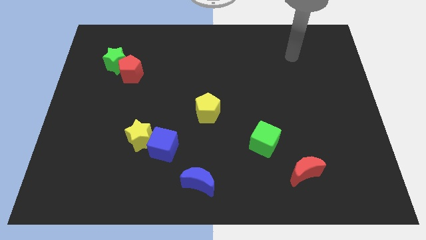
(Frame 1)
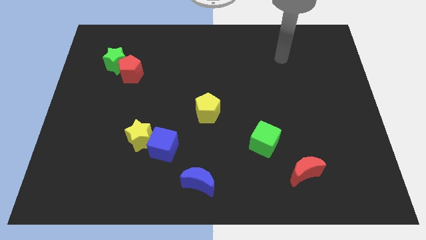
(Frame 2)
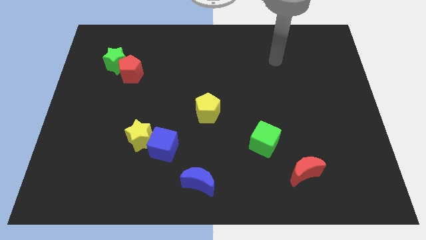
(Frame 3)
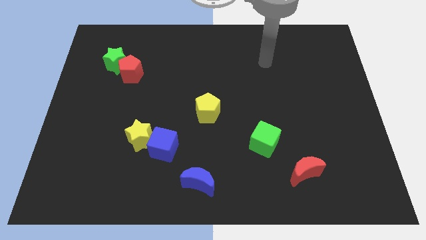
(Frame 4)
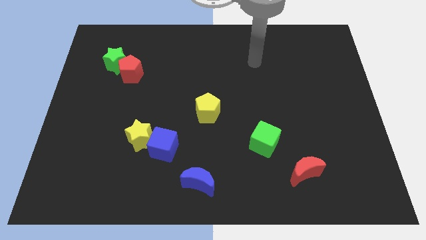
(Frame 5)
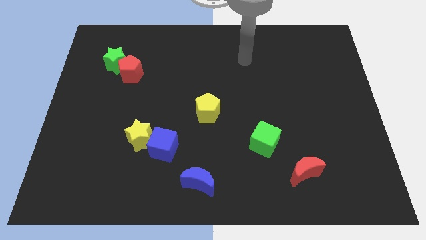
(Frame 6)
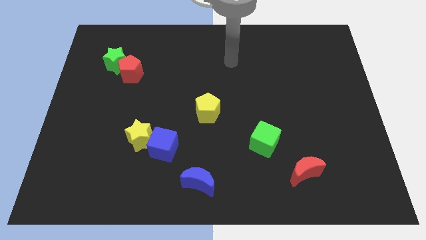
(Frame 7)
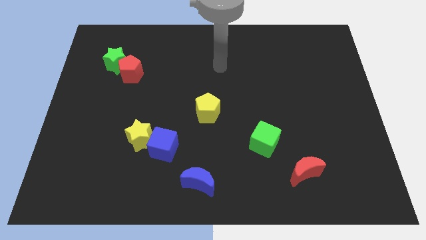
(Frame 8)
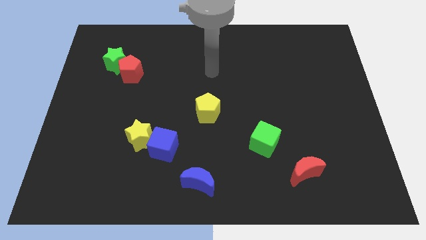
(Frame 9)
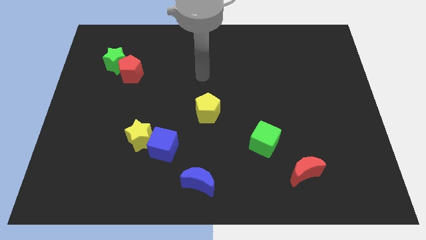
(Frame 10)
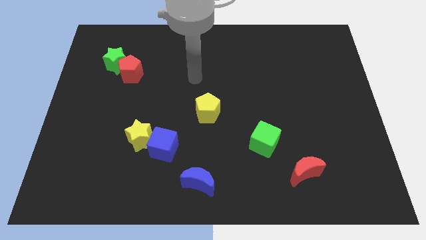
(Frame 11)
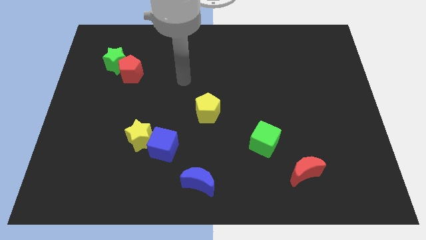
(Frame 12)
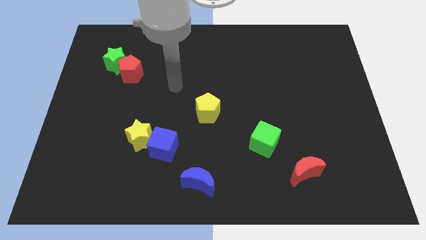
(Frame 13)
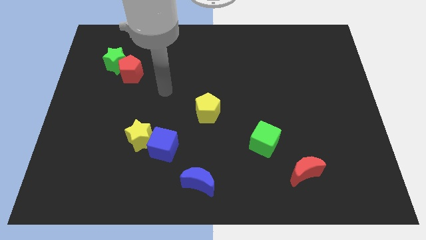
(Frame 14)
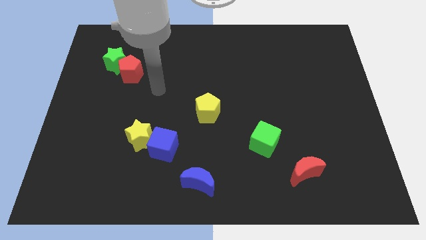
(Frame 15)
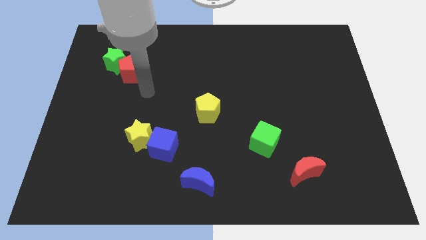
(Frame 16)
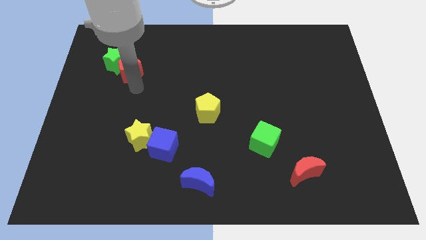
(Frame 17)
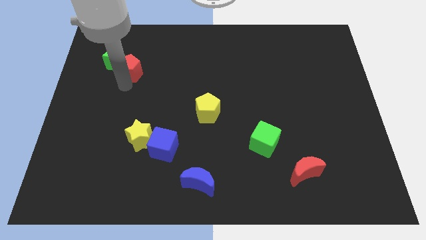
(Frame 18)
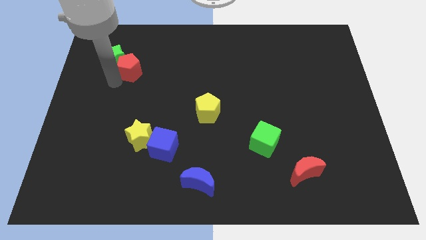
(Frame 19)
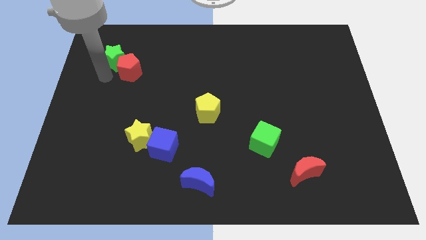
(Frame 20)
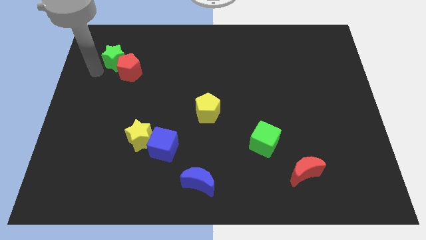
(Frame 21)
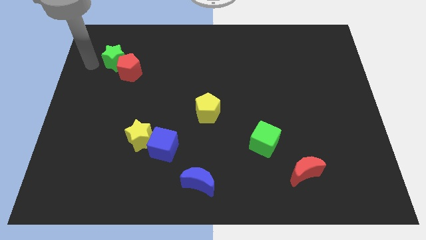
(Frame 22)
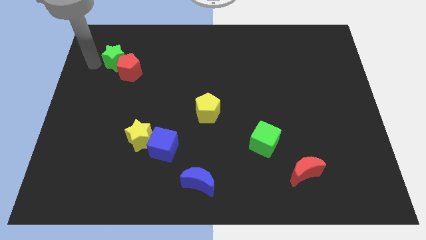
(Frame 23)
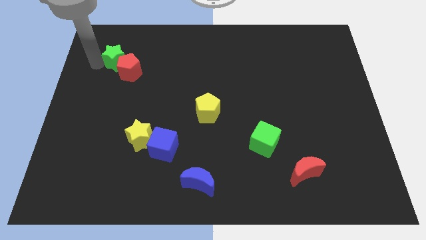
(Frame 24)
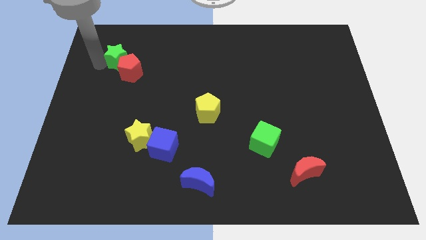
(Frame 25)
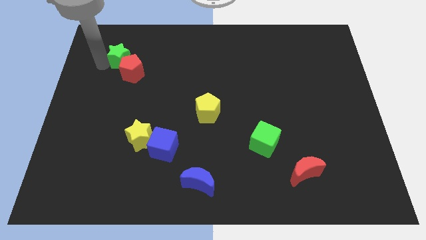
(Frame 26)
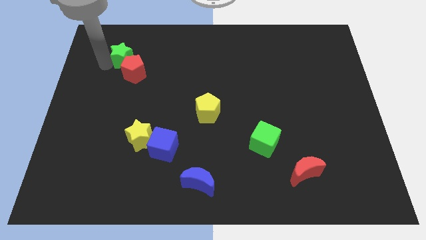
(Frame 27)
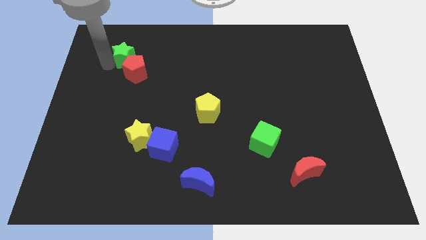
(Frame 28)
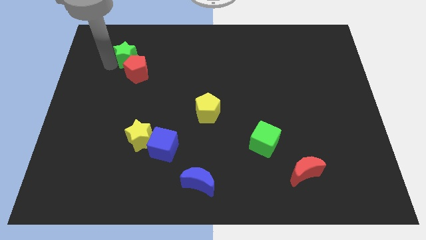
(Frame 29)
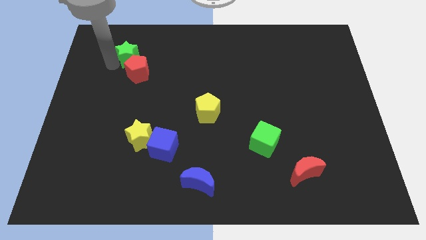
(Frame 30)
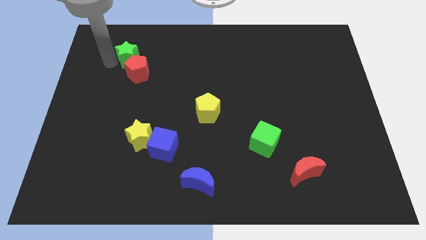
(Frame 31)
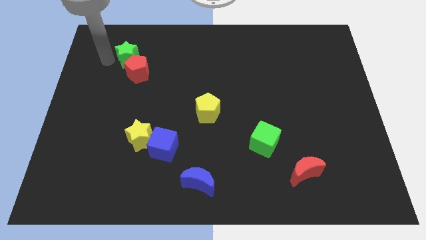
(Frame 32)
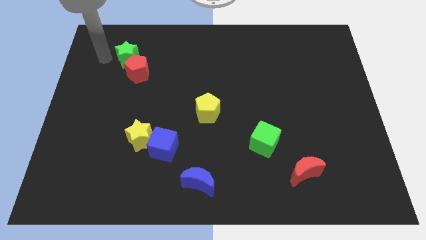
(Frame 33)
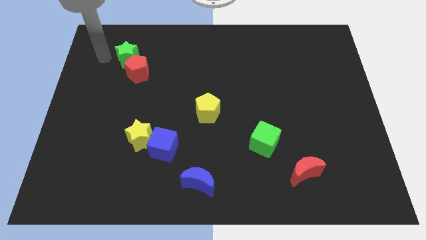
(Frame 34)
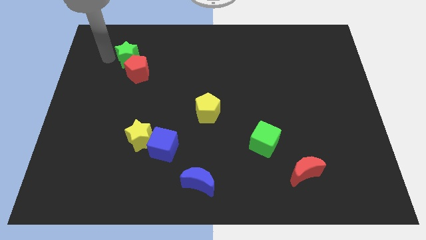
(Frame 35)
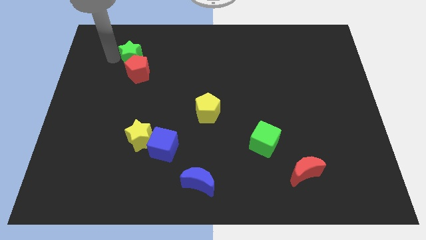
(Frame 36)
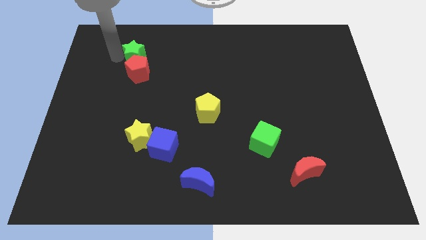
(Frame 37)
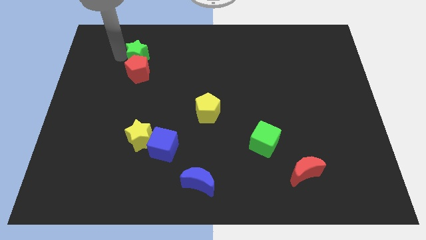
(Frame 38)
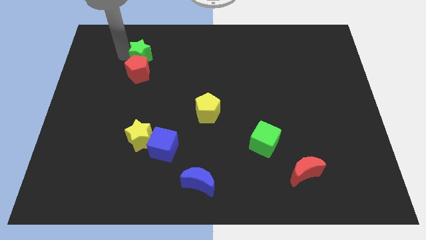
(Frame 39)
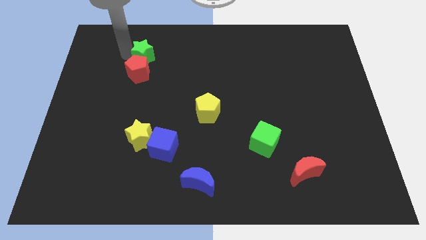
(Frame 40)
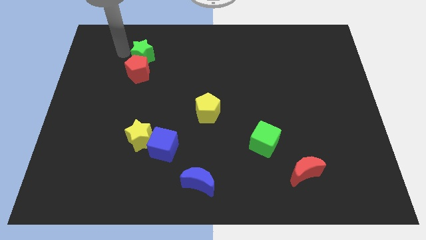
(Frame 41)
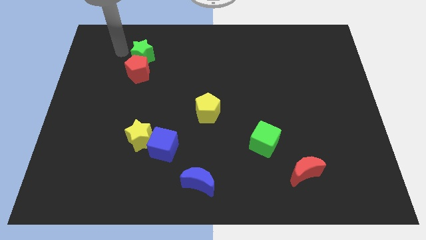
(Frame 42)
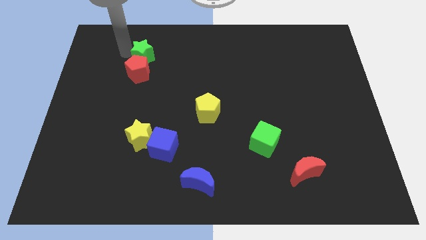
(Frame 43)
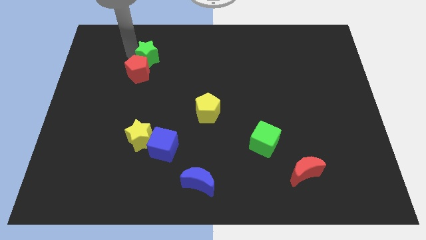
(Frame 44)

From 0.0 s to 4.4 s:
slide the green star to the right a little bit

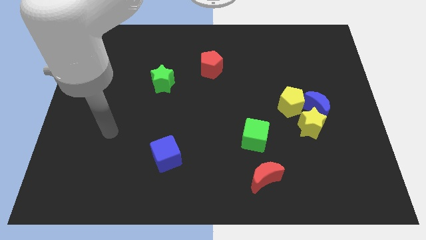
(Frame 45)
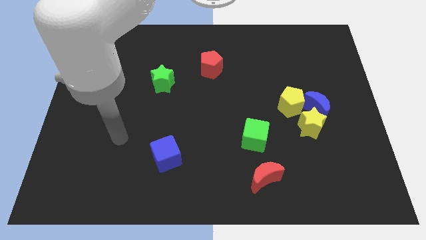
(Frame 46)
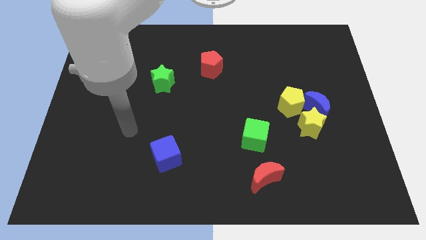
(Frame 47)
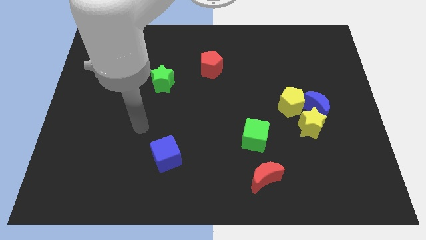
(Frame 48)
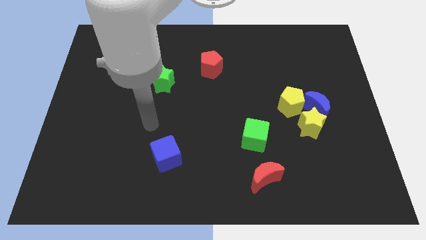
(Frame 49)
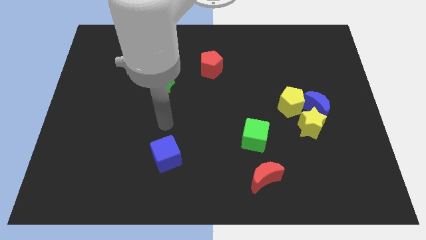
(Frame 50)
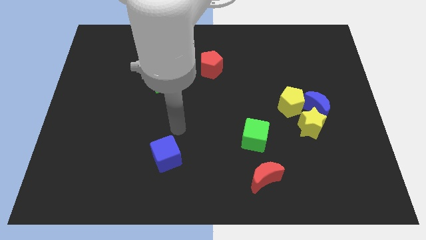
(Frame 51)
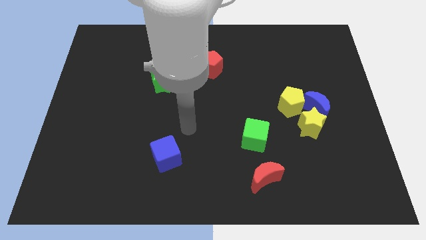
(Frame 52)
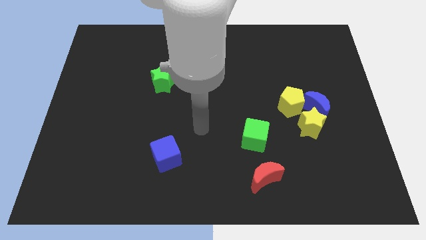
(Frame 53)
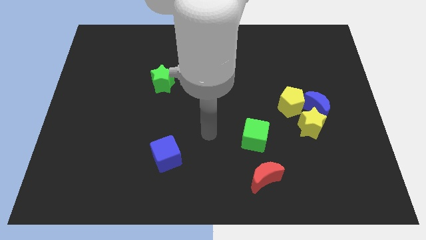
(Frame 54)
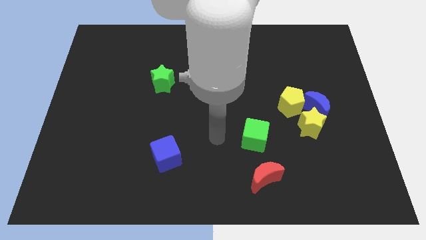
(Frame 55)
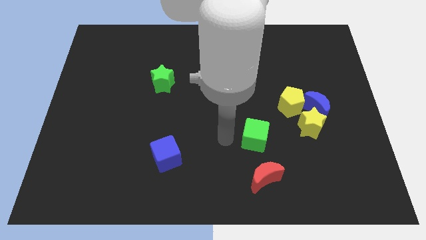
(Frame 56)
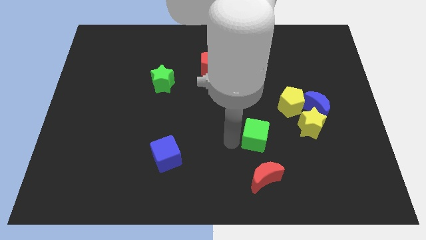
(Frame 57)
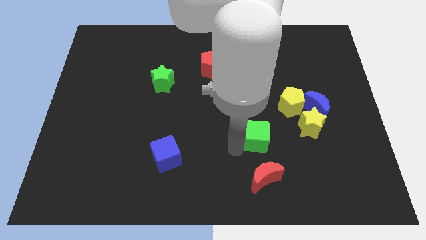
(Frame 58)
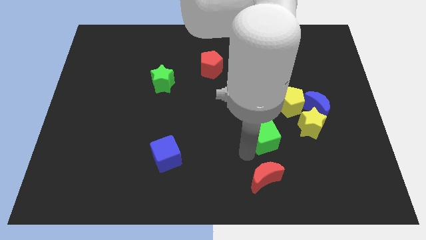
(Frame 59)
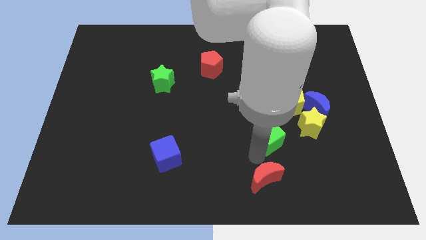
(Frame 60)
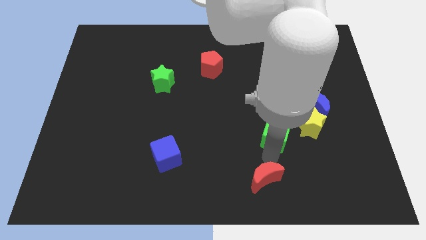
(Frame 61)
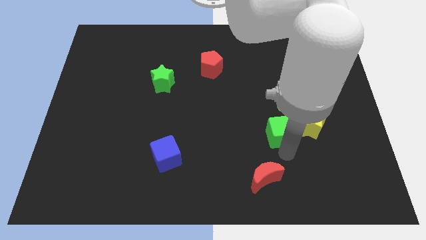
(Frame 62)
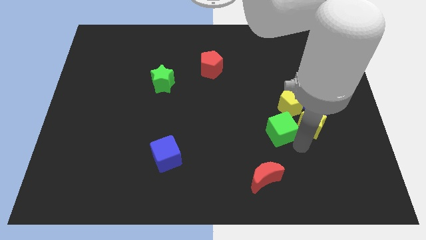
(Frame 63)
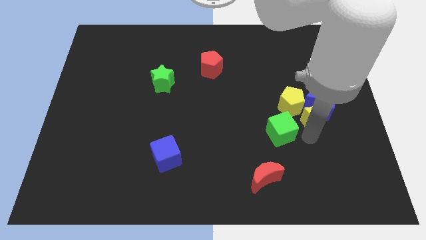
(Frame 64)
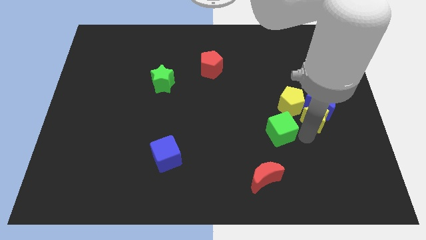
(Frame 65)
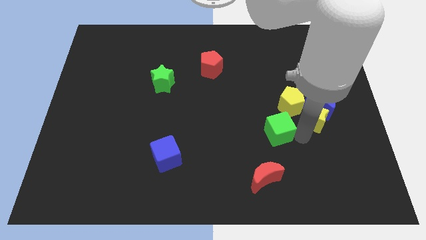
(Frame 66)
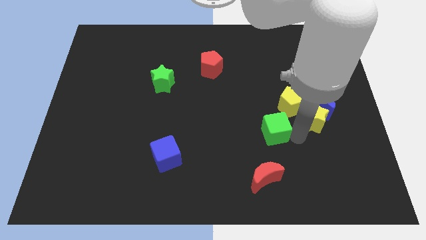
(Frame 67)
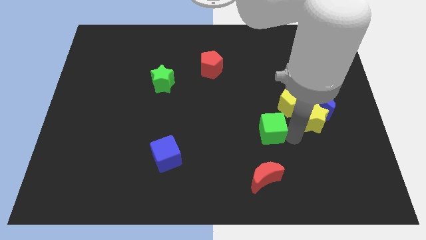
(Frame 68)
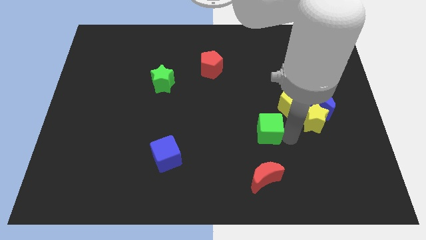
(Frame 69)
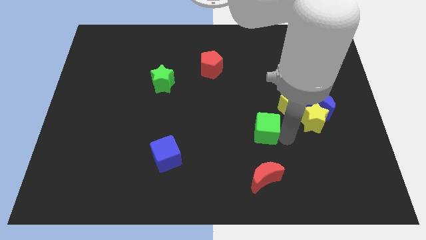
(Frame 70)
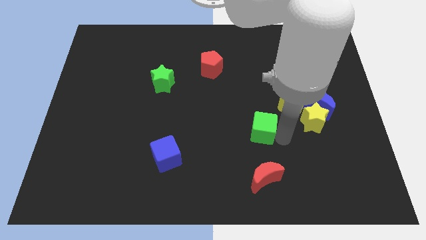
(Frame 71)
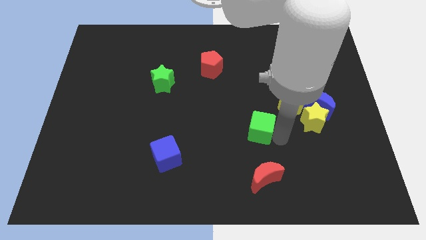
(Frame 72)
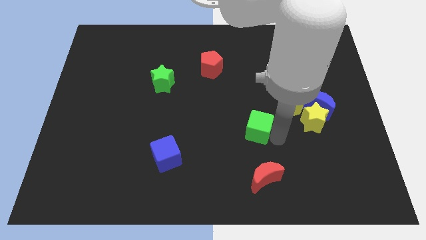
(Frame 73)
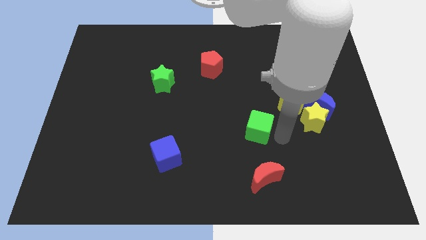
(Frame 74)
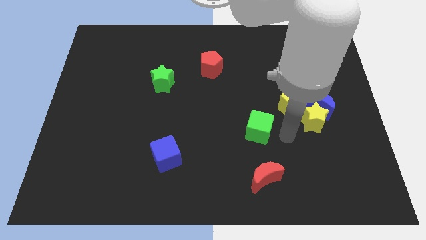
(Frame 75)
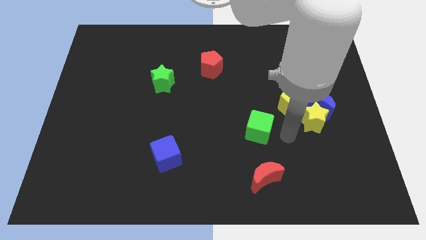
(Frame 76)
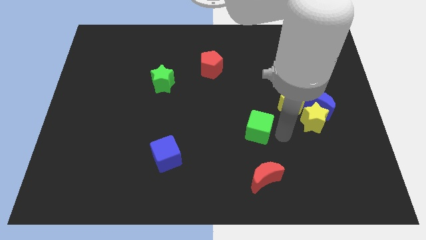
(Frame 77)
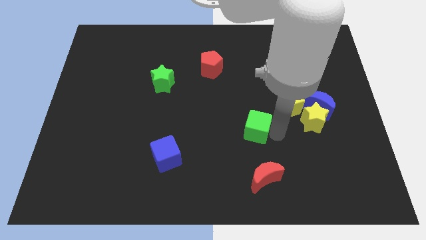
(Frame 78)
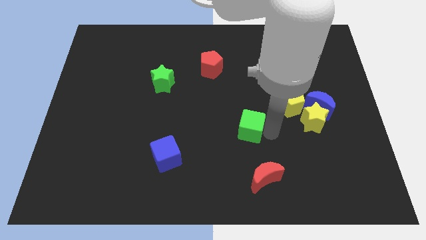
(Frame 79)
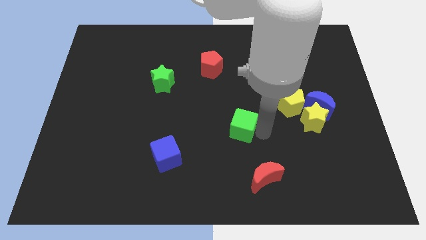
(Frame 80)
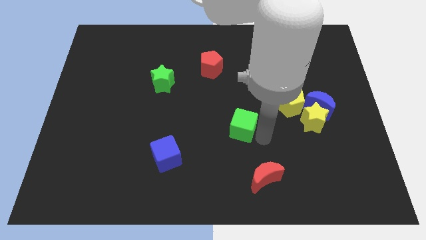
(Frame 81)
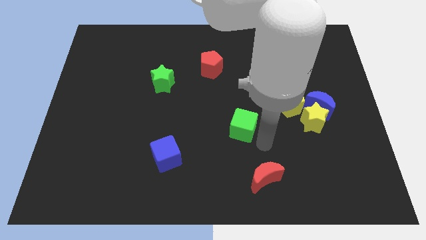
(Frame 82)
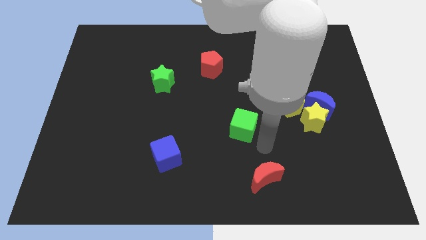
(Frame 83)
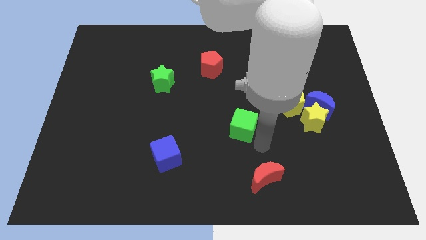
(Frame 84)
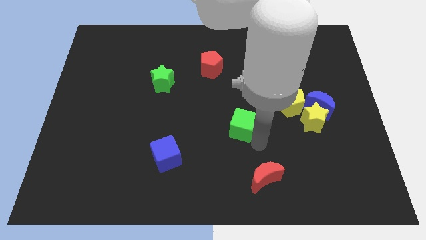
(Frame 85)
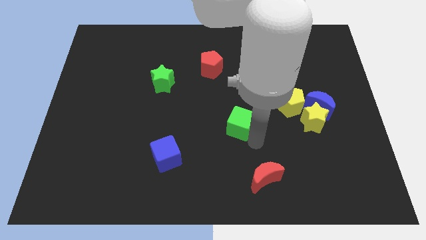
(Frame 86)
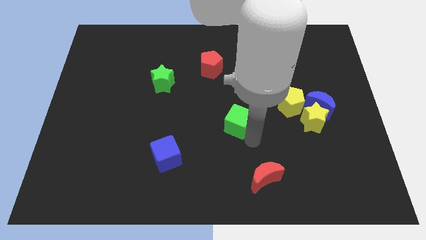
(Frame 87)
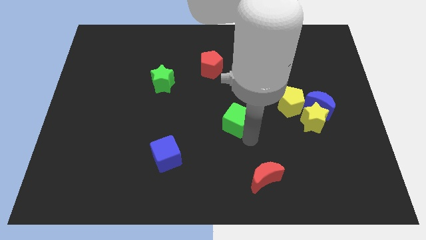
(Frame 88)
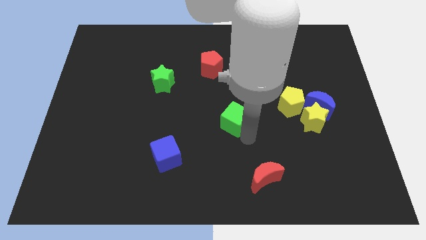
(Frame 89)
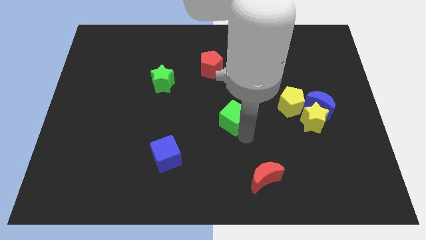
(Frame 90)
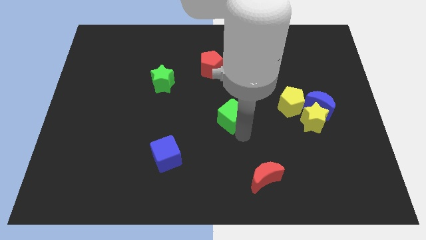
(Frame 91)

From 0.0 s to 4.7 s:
slide the green cube up and left diagonally a little bit
